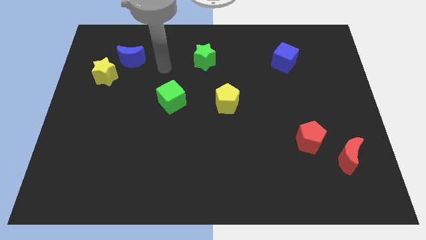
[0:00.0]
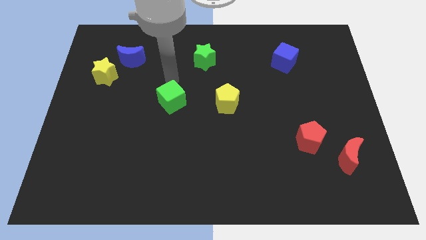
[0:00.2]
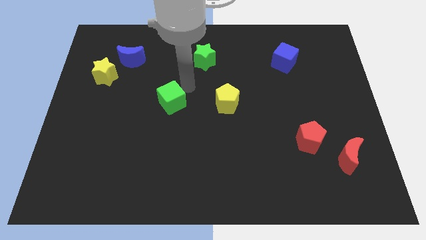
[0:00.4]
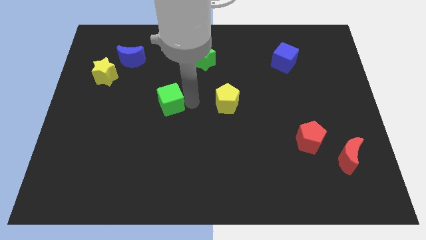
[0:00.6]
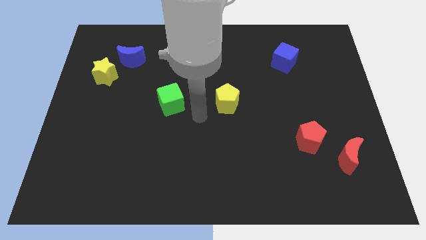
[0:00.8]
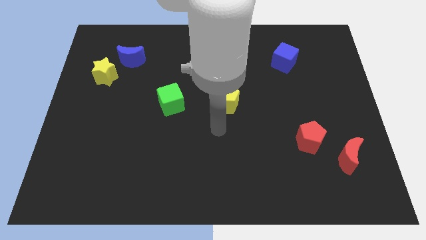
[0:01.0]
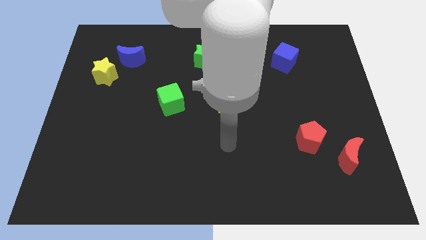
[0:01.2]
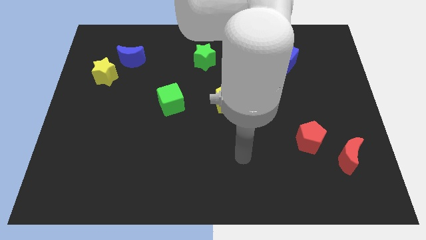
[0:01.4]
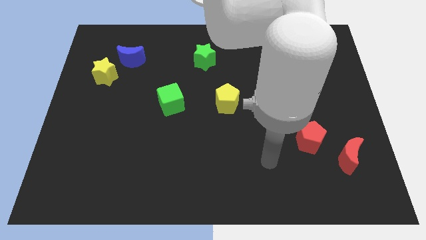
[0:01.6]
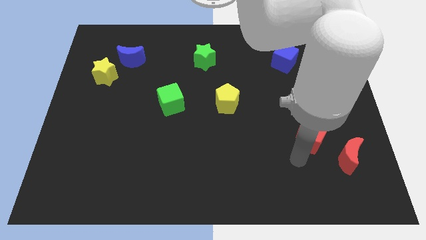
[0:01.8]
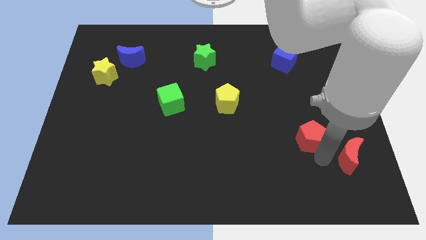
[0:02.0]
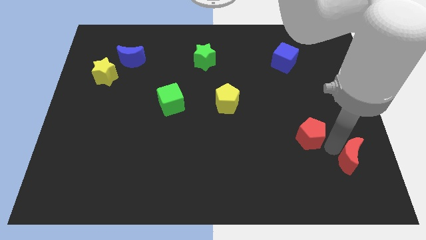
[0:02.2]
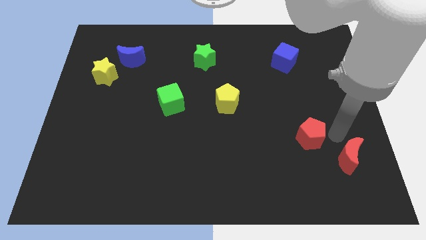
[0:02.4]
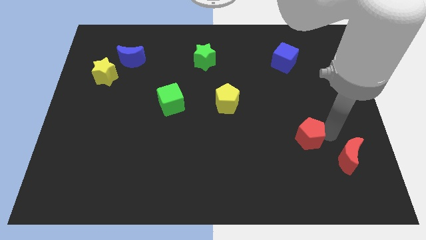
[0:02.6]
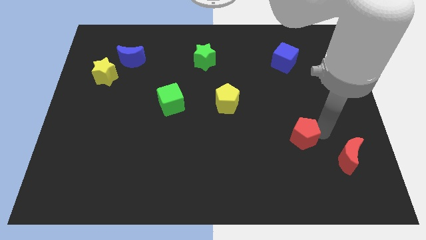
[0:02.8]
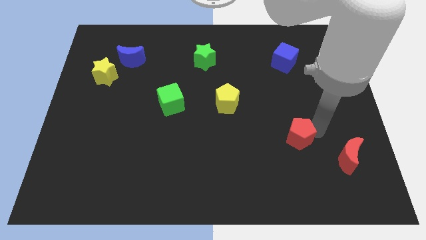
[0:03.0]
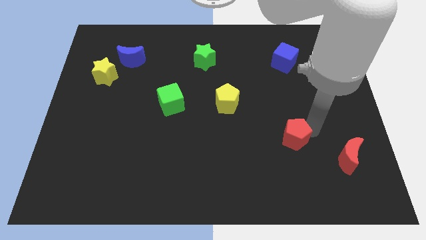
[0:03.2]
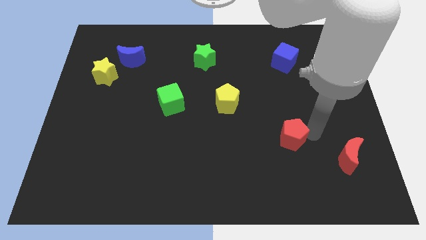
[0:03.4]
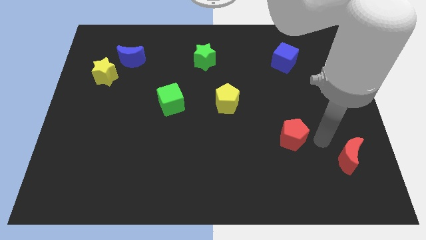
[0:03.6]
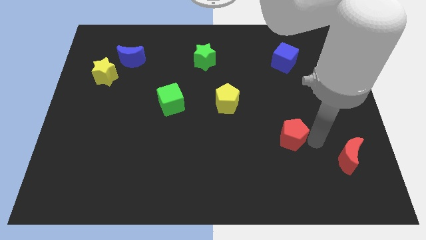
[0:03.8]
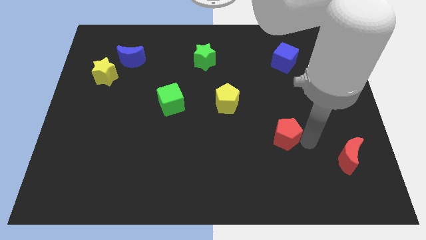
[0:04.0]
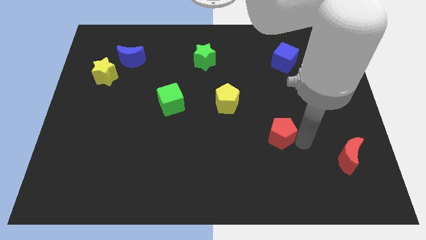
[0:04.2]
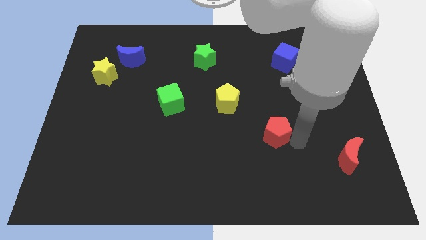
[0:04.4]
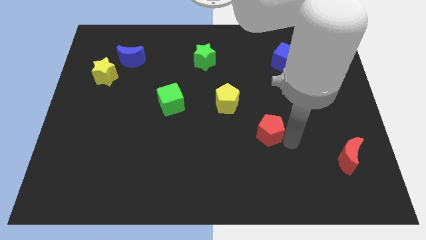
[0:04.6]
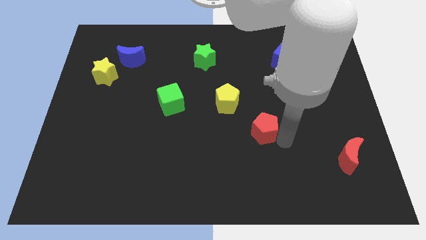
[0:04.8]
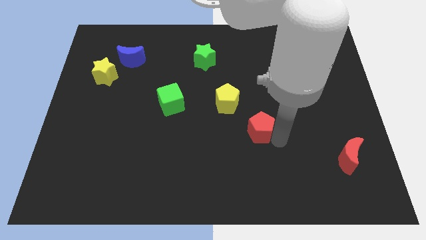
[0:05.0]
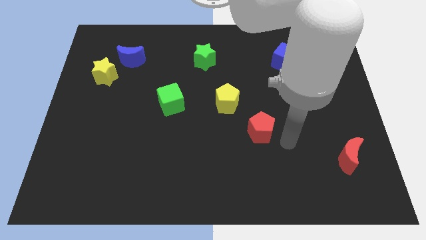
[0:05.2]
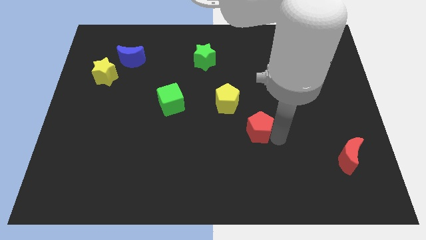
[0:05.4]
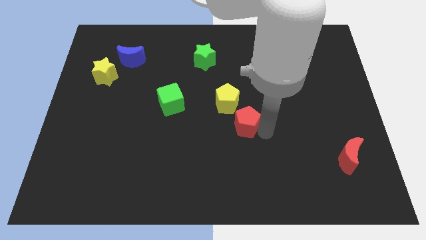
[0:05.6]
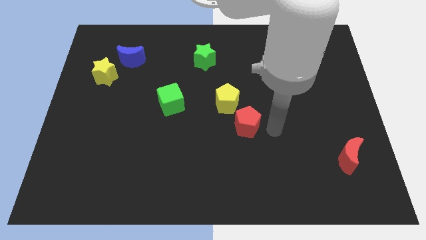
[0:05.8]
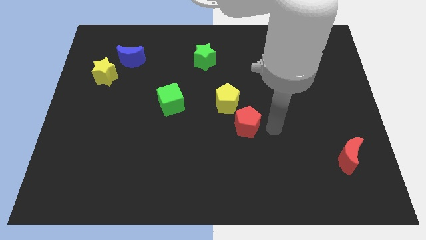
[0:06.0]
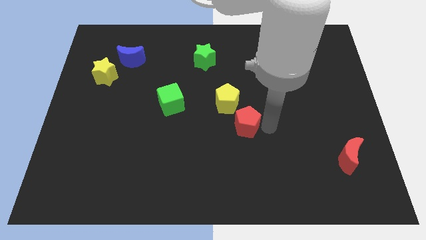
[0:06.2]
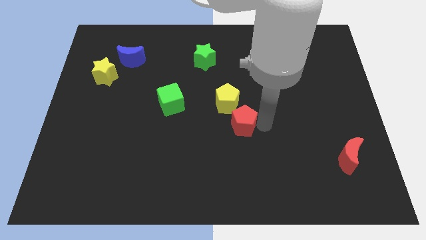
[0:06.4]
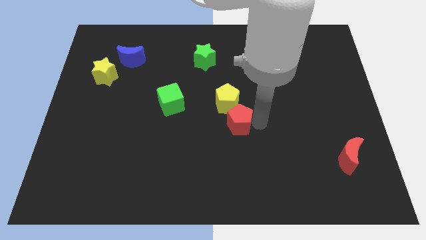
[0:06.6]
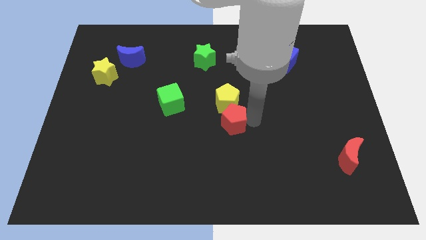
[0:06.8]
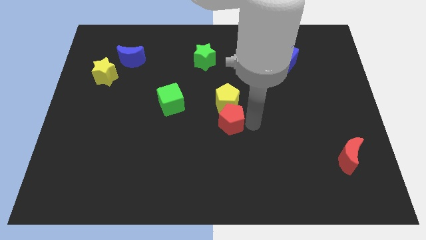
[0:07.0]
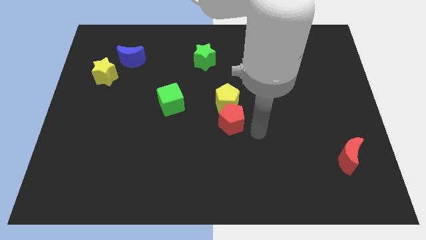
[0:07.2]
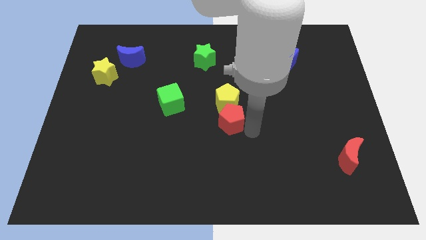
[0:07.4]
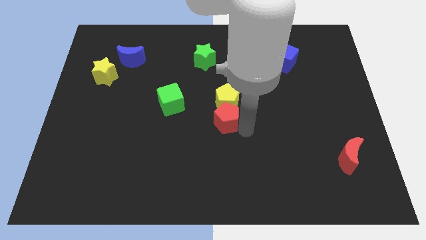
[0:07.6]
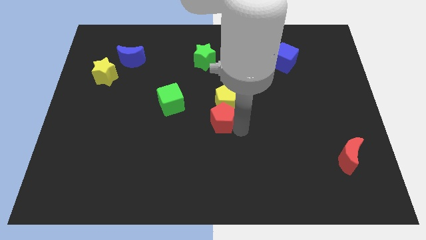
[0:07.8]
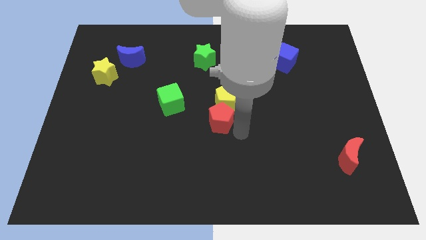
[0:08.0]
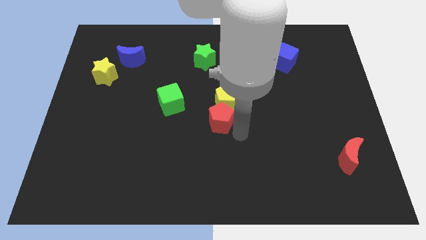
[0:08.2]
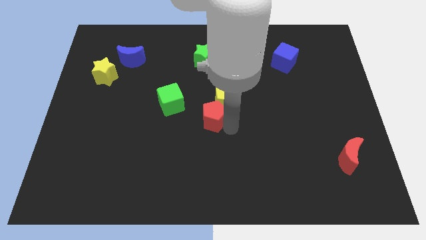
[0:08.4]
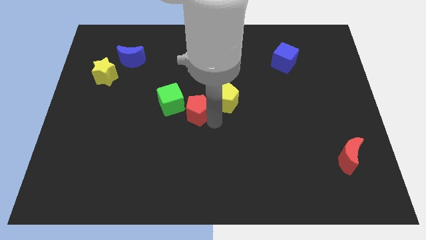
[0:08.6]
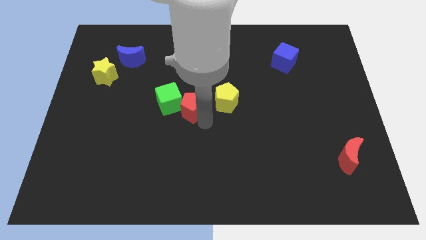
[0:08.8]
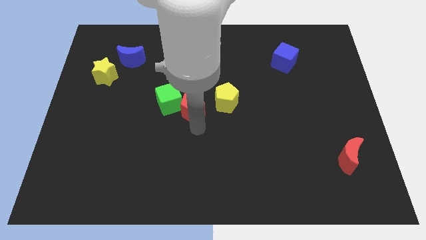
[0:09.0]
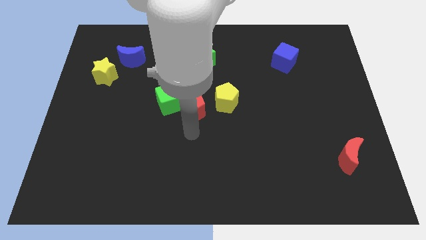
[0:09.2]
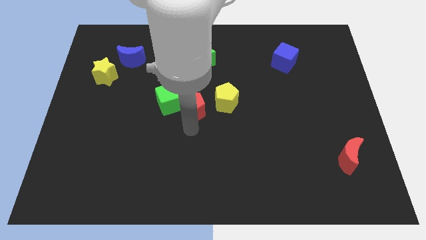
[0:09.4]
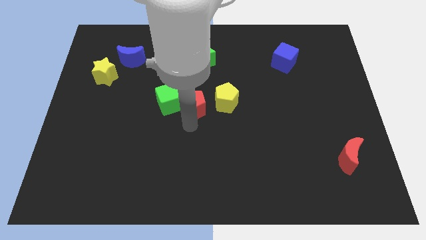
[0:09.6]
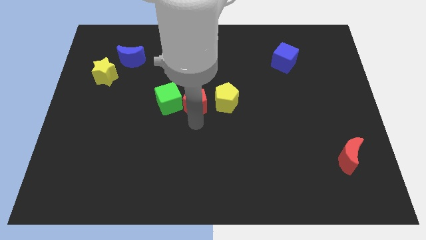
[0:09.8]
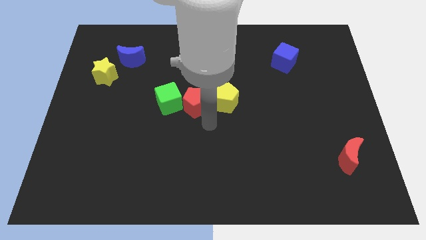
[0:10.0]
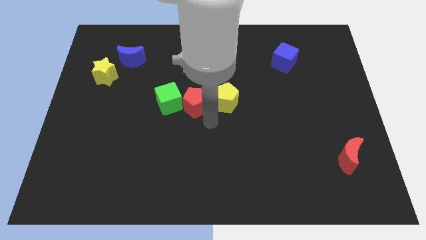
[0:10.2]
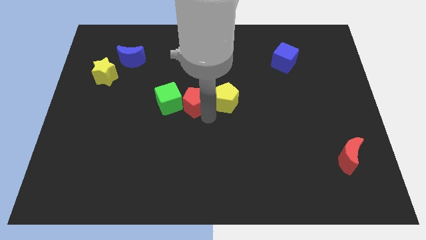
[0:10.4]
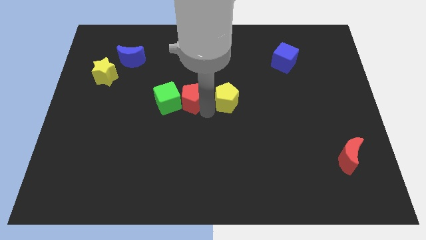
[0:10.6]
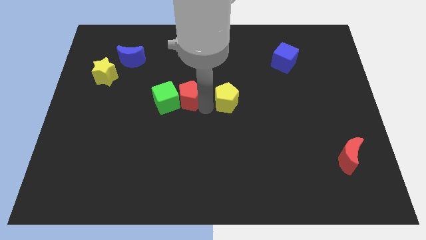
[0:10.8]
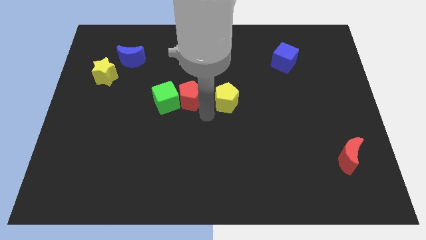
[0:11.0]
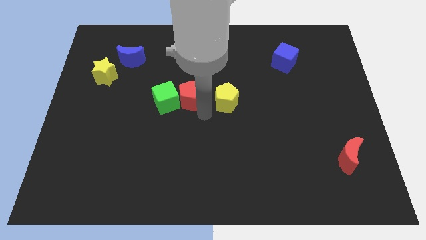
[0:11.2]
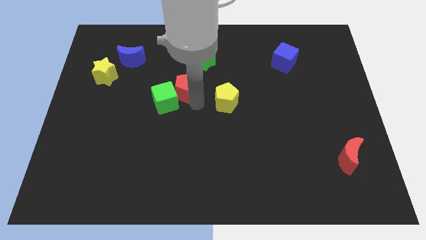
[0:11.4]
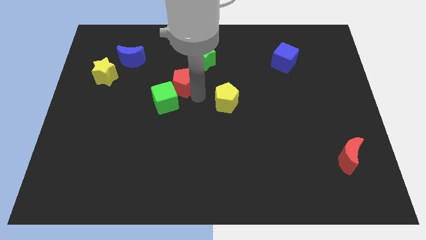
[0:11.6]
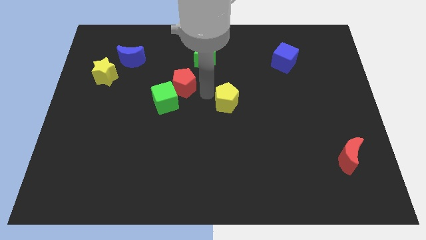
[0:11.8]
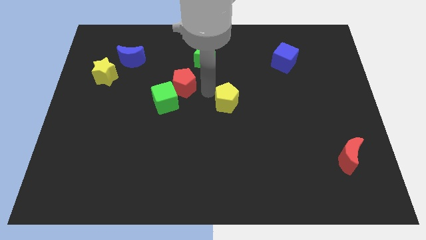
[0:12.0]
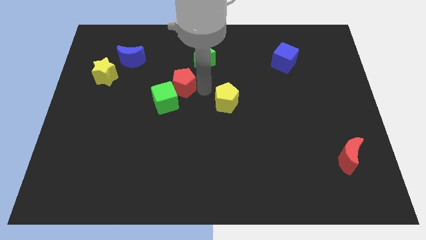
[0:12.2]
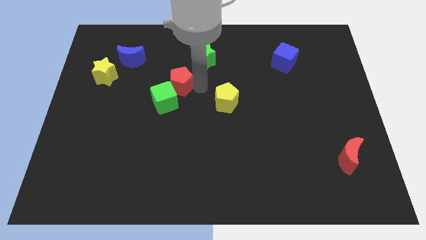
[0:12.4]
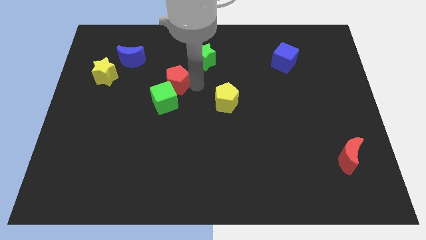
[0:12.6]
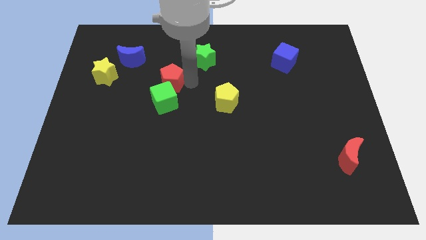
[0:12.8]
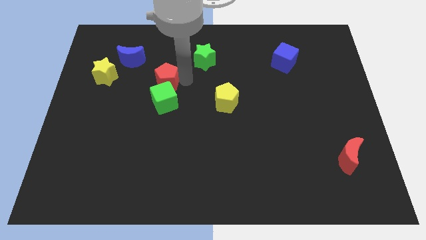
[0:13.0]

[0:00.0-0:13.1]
slide the red pentagon to the bottom right of the blue moon
